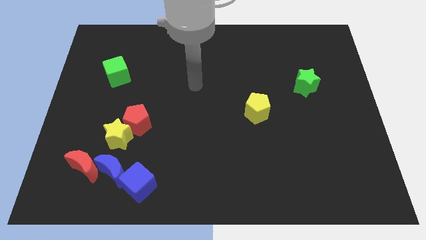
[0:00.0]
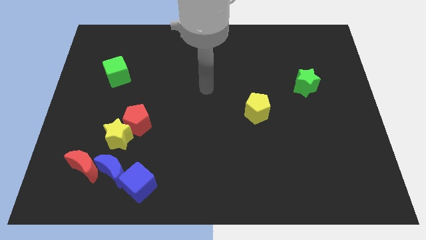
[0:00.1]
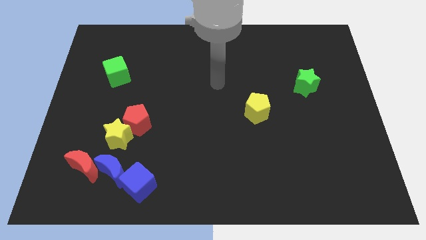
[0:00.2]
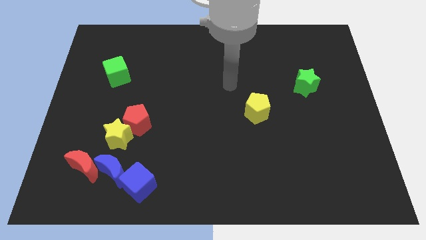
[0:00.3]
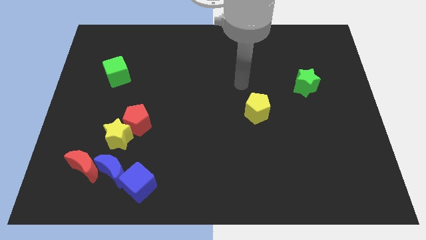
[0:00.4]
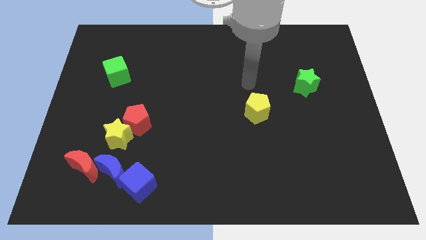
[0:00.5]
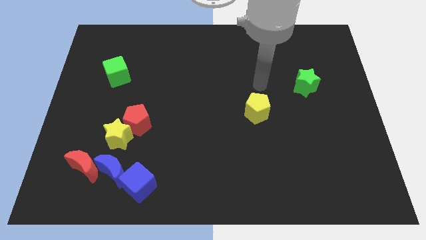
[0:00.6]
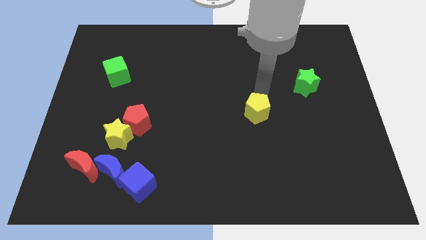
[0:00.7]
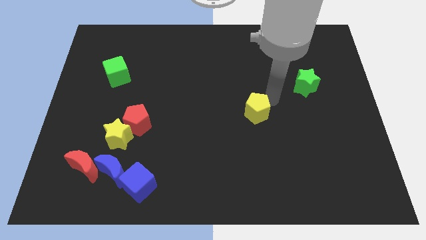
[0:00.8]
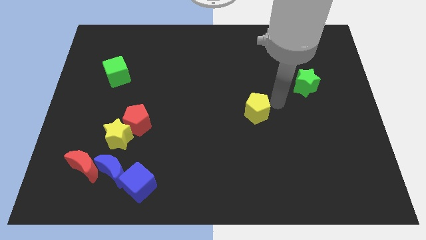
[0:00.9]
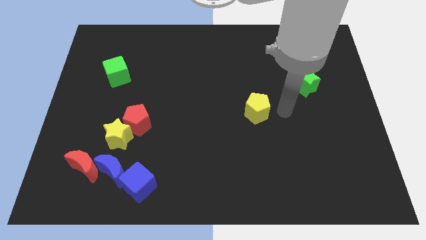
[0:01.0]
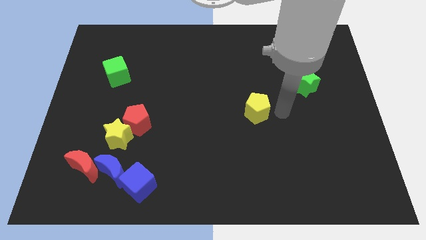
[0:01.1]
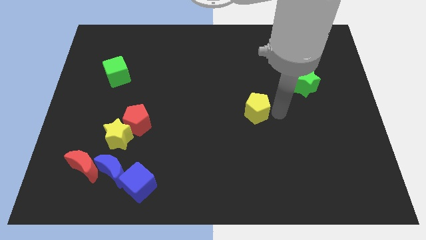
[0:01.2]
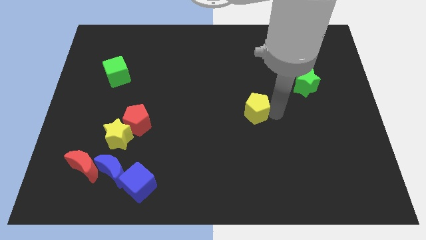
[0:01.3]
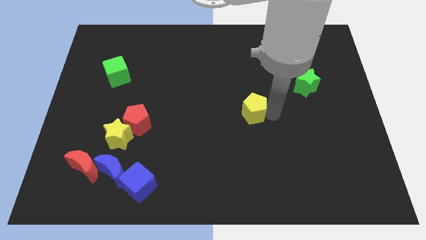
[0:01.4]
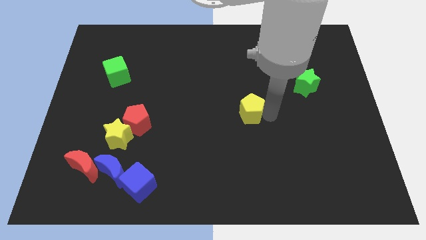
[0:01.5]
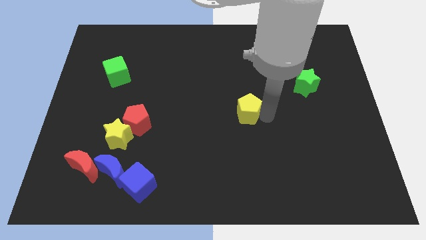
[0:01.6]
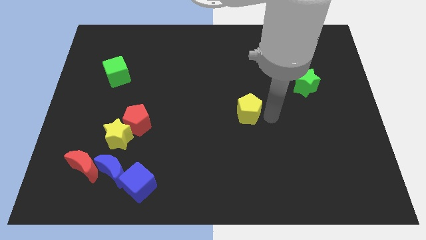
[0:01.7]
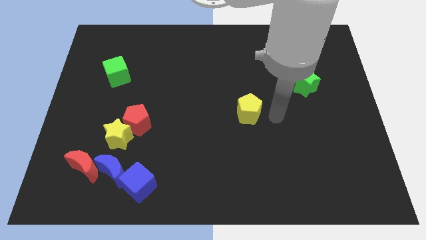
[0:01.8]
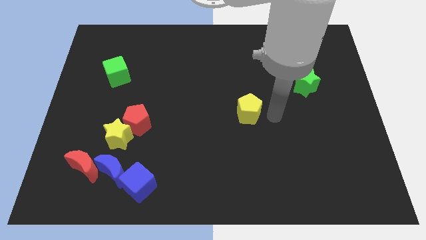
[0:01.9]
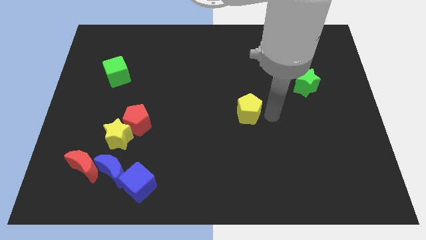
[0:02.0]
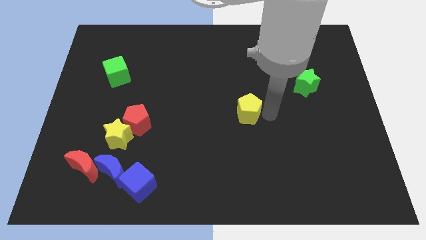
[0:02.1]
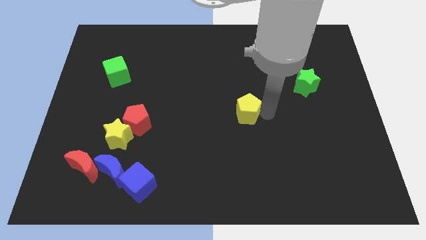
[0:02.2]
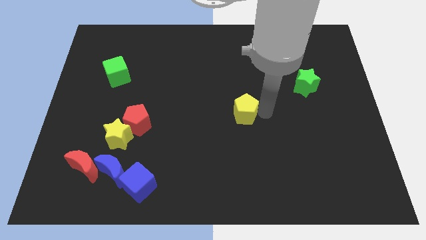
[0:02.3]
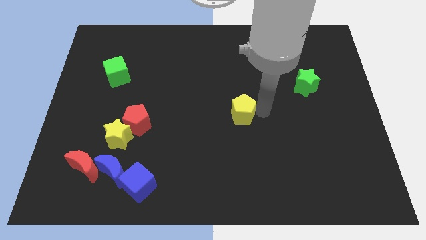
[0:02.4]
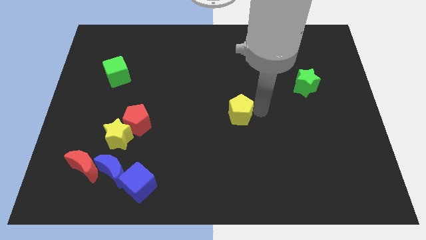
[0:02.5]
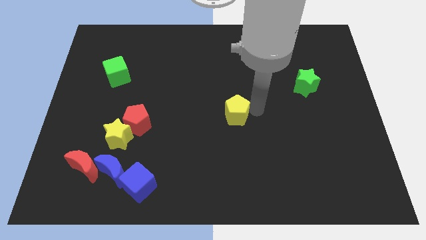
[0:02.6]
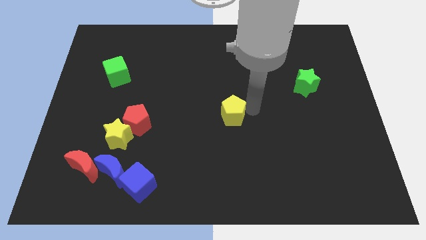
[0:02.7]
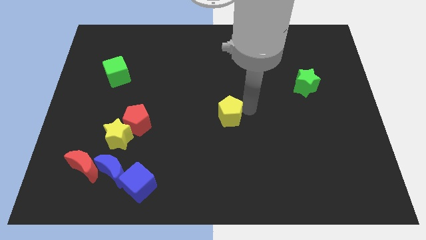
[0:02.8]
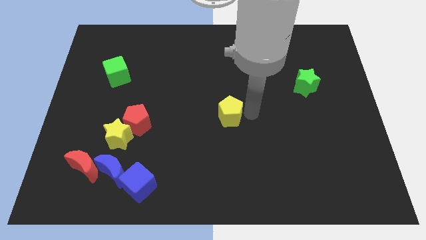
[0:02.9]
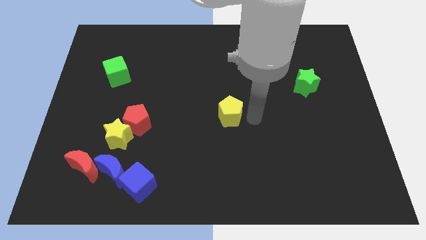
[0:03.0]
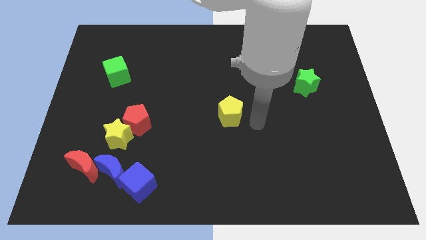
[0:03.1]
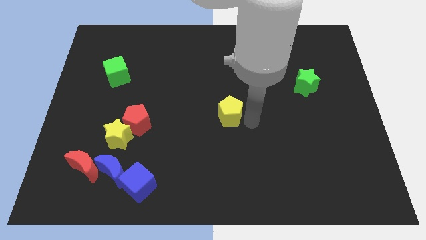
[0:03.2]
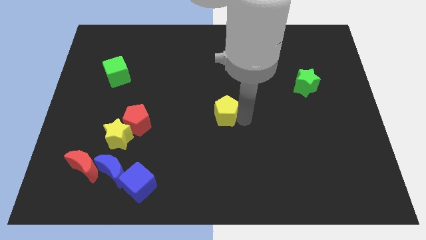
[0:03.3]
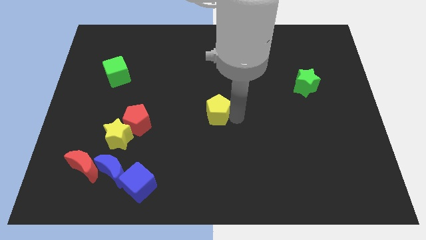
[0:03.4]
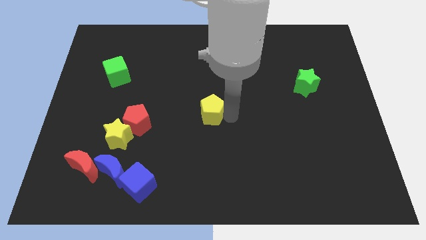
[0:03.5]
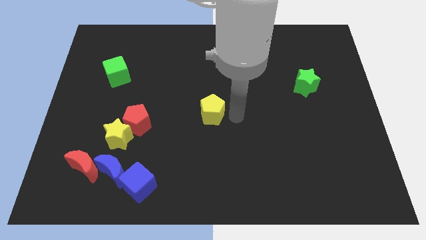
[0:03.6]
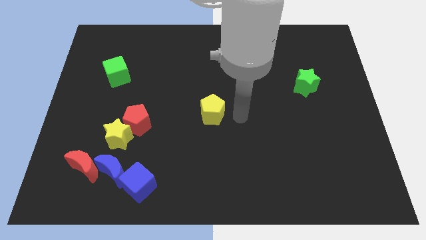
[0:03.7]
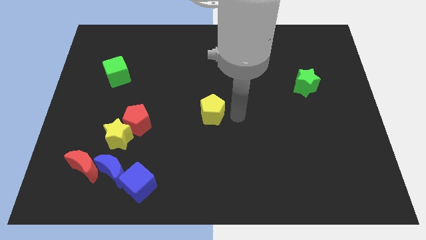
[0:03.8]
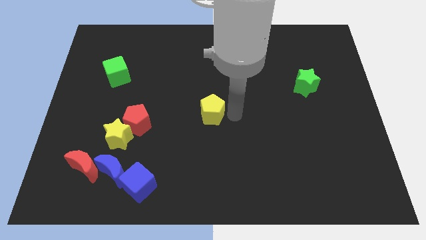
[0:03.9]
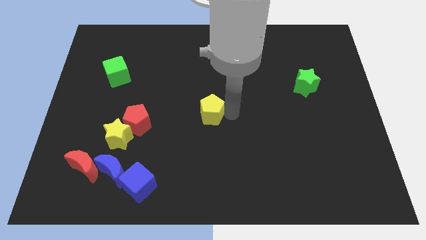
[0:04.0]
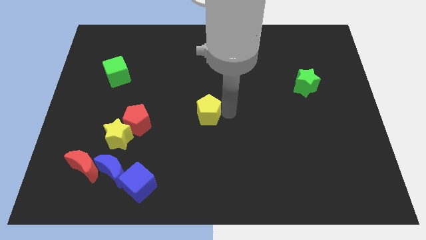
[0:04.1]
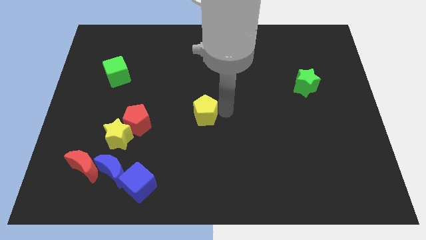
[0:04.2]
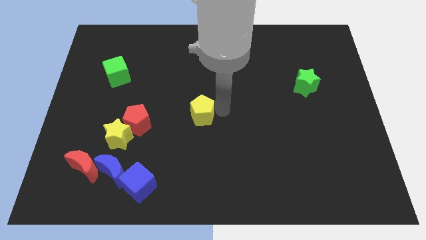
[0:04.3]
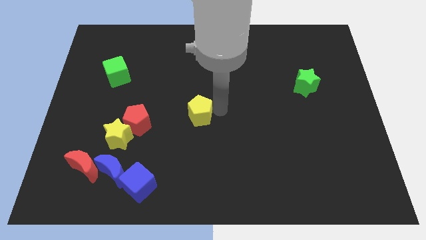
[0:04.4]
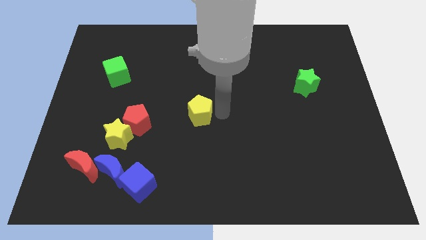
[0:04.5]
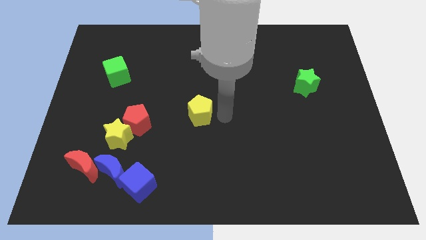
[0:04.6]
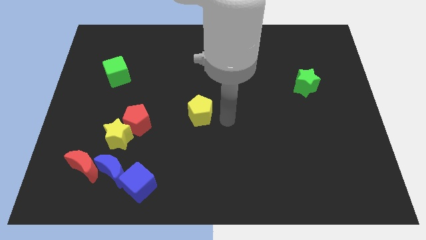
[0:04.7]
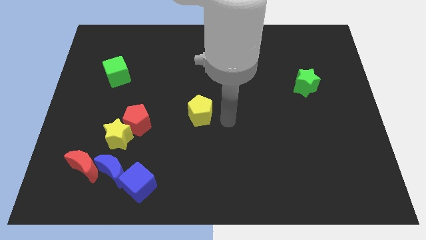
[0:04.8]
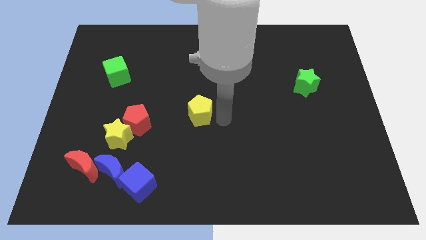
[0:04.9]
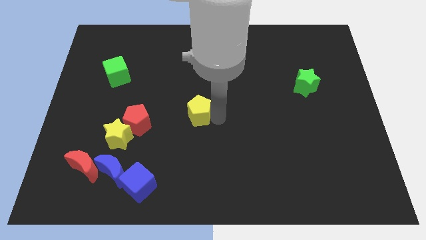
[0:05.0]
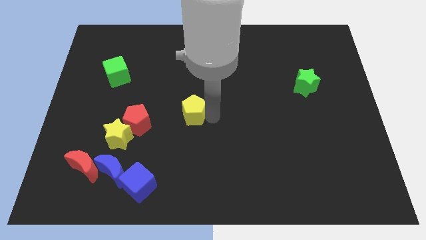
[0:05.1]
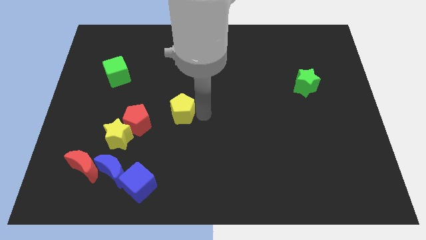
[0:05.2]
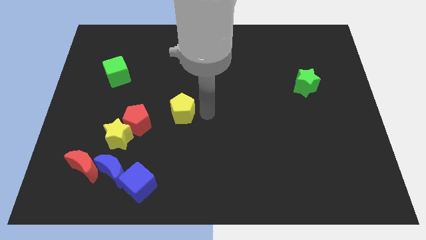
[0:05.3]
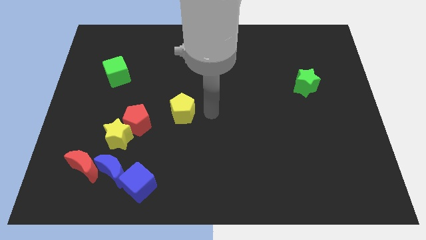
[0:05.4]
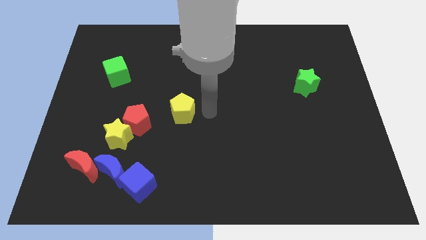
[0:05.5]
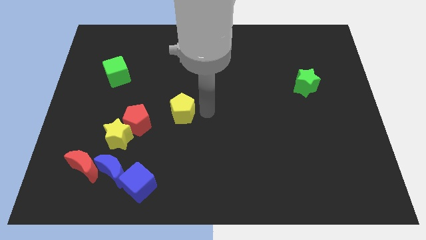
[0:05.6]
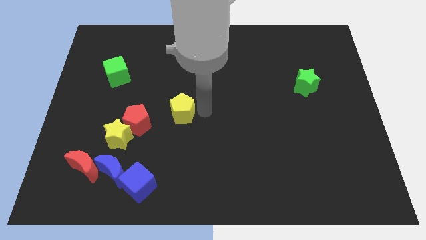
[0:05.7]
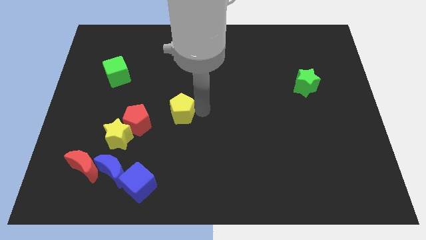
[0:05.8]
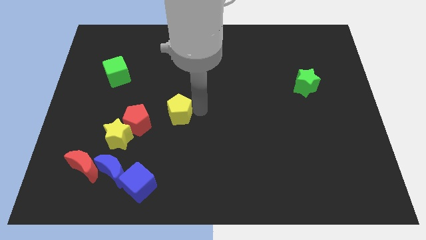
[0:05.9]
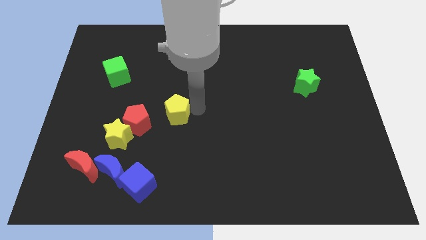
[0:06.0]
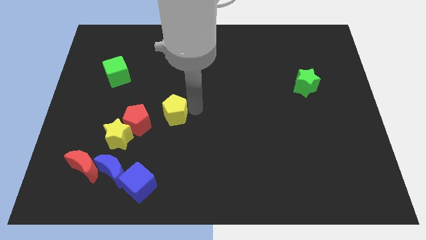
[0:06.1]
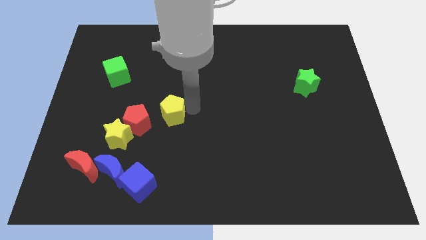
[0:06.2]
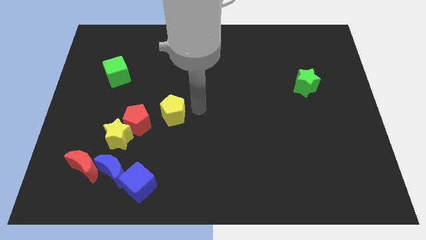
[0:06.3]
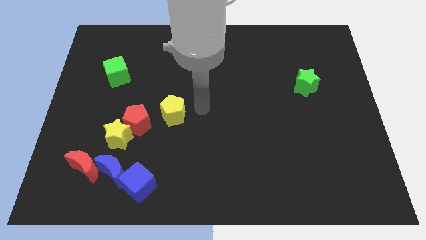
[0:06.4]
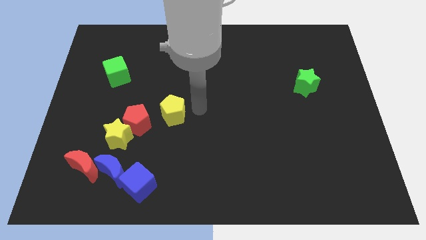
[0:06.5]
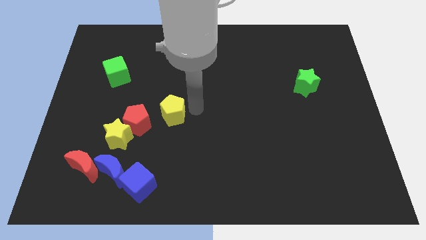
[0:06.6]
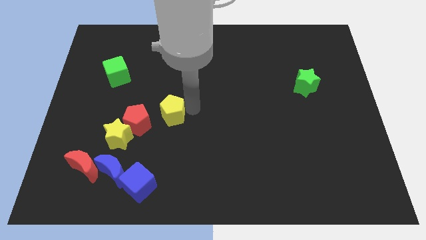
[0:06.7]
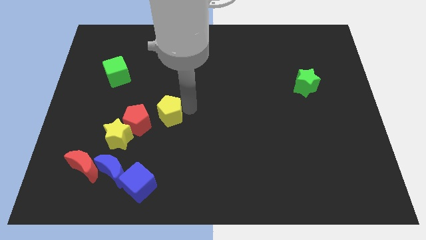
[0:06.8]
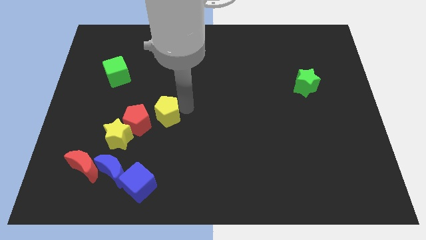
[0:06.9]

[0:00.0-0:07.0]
move the yellow pentagon diagonally up and to the right of the yellow star
